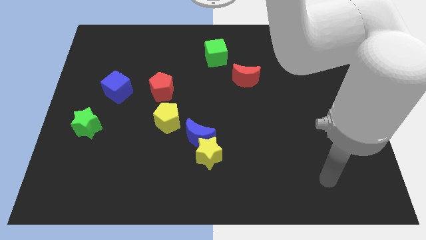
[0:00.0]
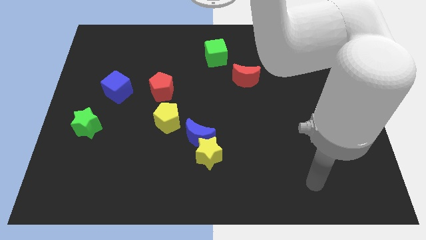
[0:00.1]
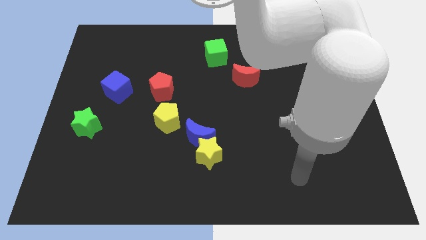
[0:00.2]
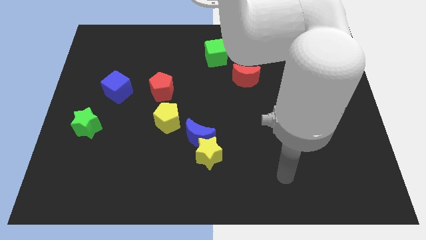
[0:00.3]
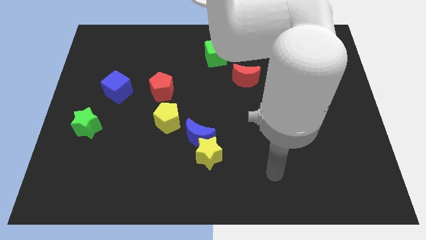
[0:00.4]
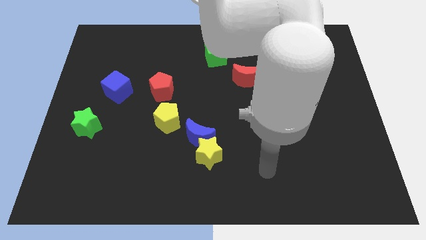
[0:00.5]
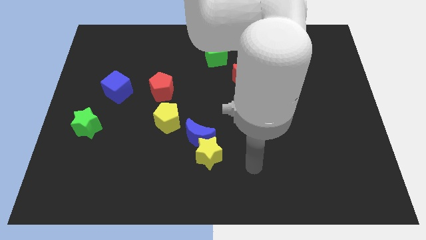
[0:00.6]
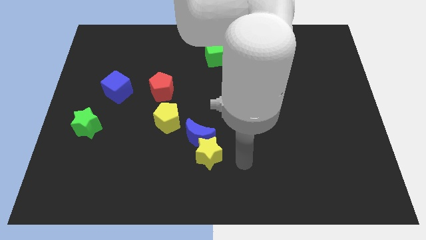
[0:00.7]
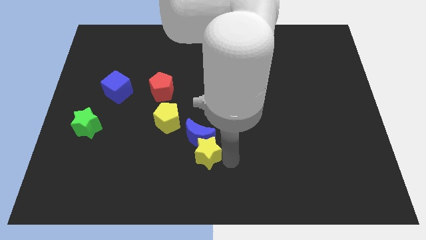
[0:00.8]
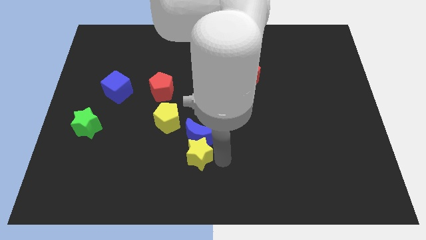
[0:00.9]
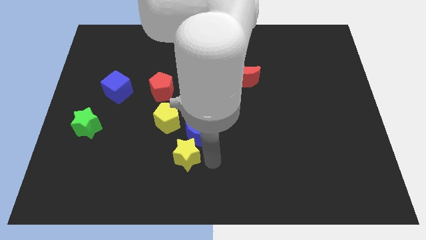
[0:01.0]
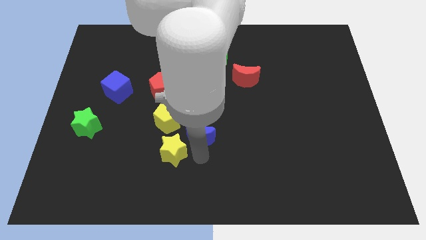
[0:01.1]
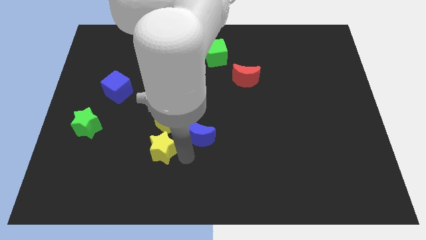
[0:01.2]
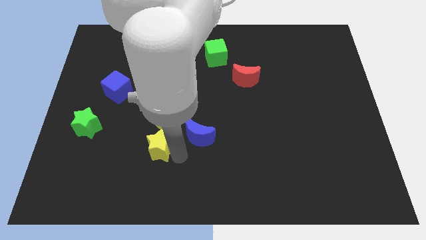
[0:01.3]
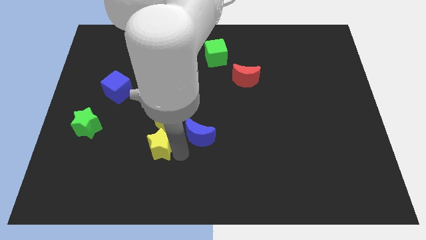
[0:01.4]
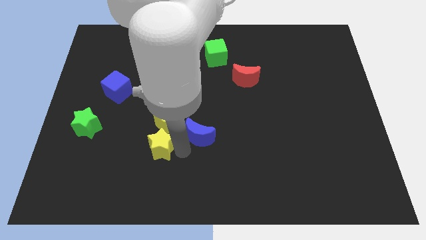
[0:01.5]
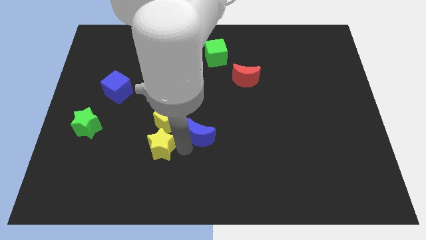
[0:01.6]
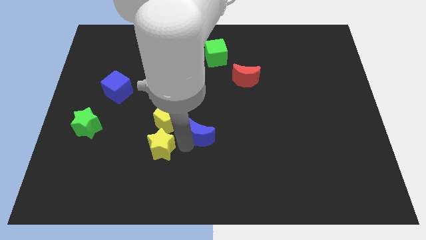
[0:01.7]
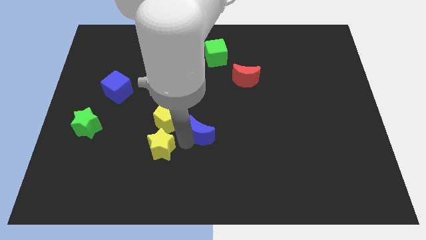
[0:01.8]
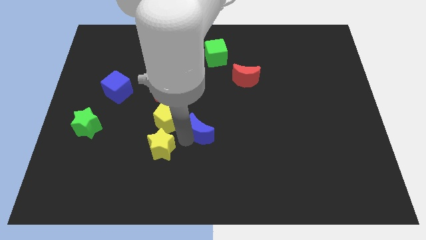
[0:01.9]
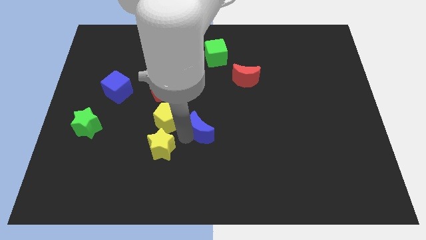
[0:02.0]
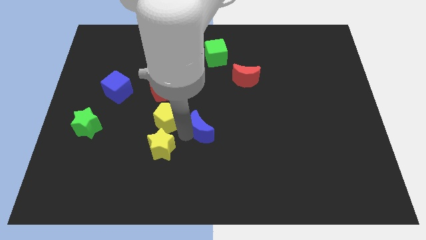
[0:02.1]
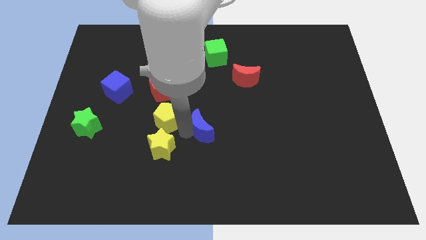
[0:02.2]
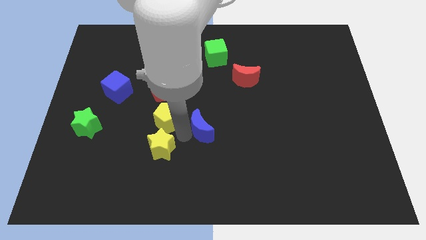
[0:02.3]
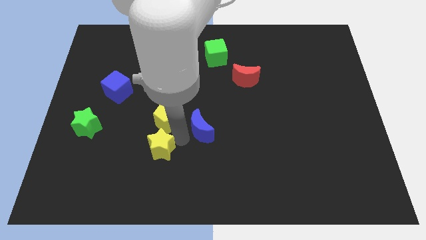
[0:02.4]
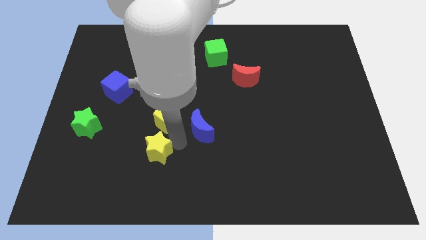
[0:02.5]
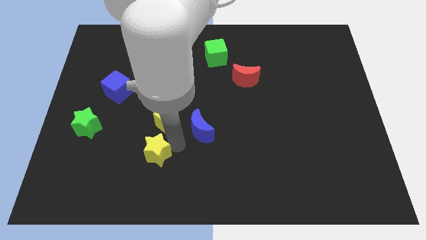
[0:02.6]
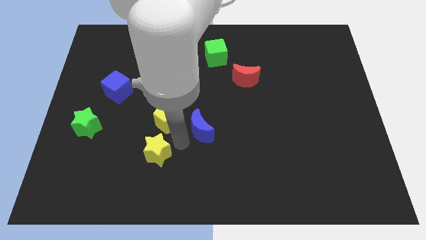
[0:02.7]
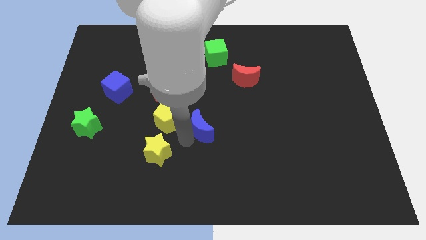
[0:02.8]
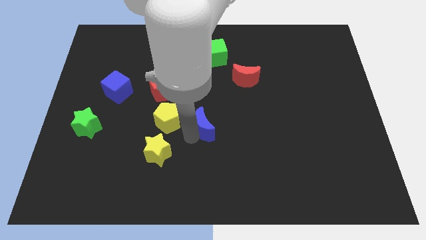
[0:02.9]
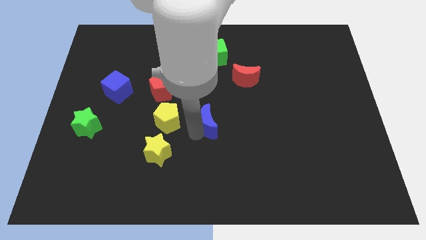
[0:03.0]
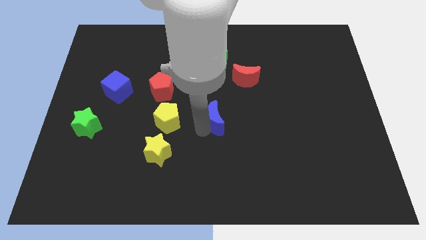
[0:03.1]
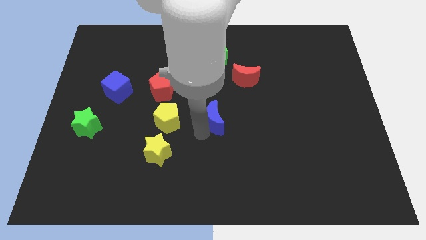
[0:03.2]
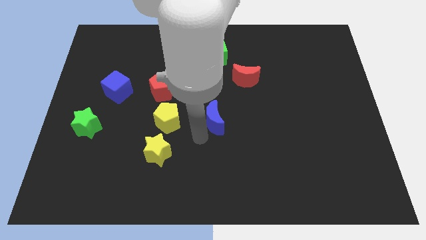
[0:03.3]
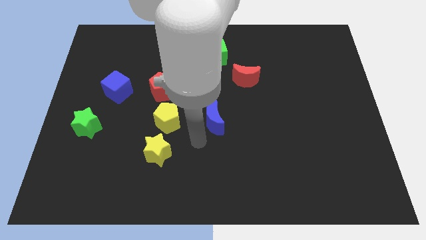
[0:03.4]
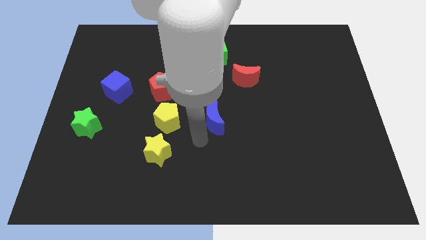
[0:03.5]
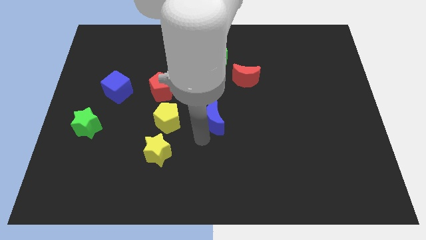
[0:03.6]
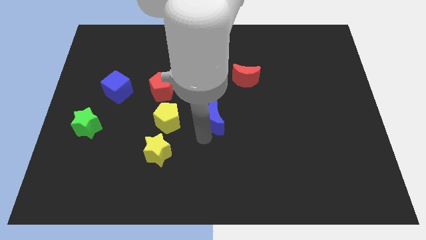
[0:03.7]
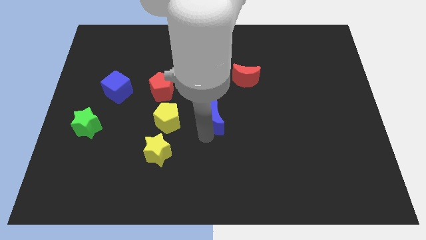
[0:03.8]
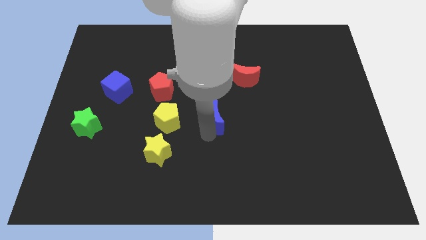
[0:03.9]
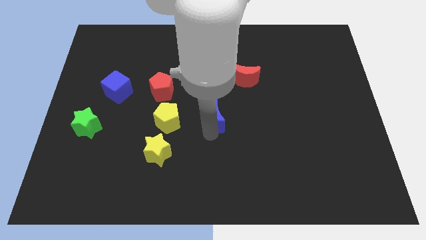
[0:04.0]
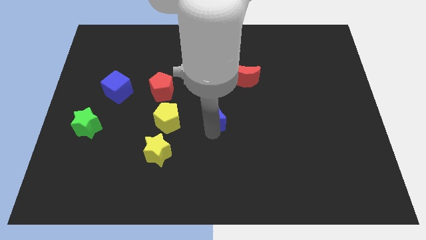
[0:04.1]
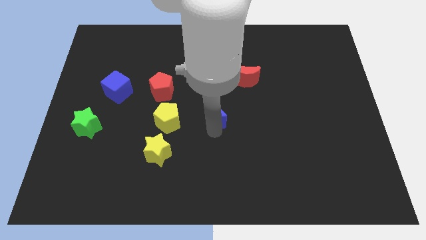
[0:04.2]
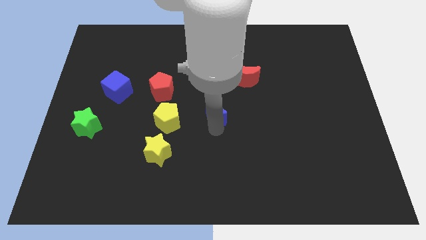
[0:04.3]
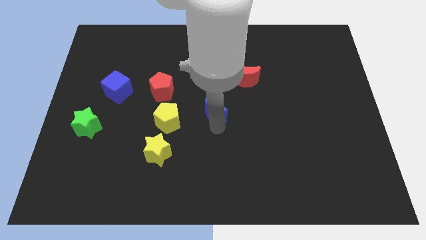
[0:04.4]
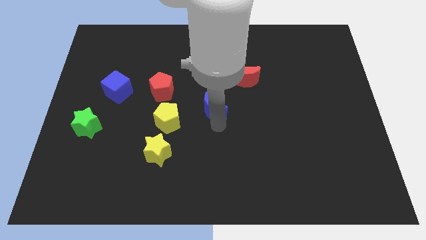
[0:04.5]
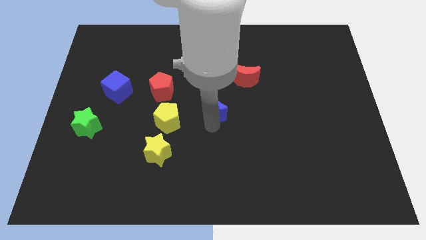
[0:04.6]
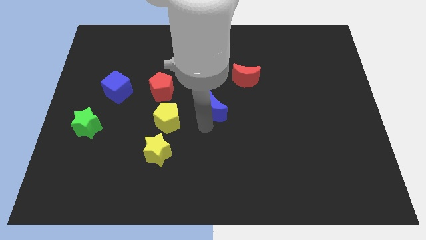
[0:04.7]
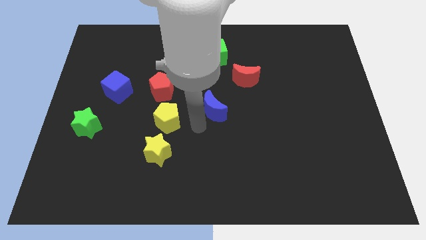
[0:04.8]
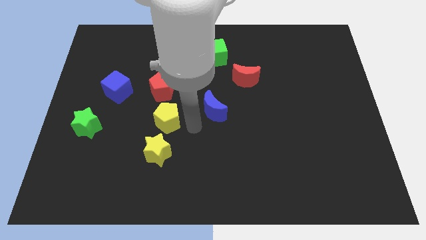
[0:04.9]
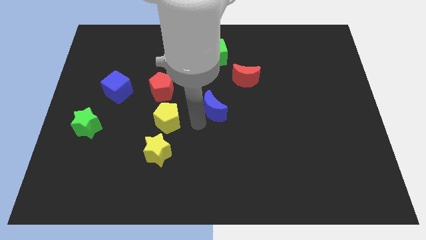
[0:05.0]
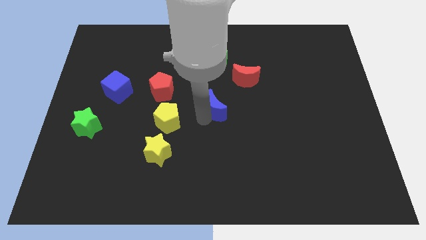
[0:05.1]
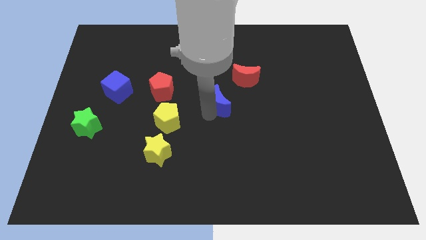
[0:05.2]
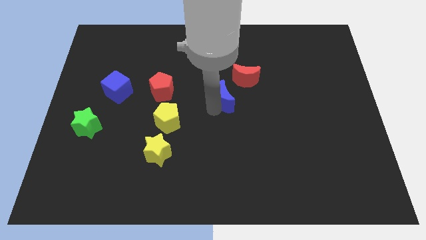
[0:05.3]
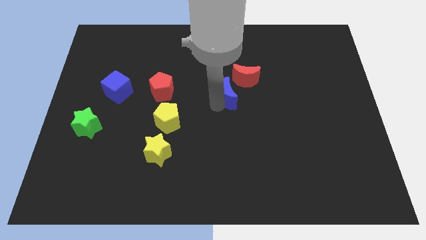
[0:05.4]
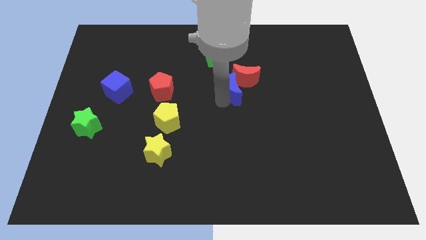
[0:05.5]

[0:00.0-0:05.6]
put the blue moon close to the red moon

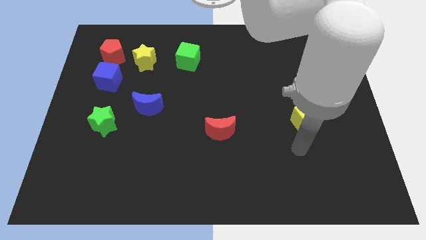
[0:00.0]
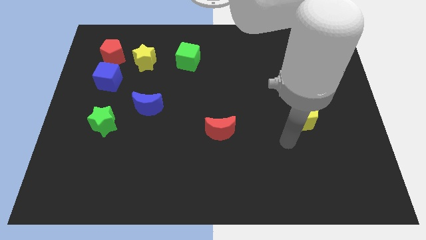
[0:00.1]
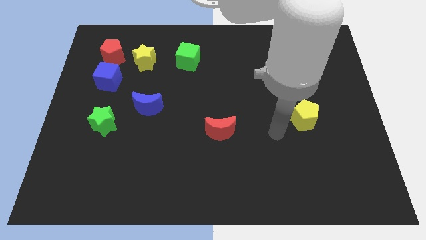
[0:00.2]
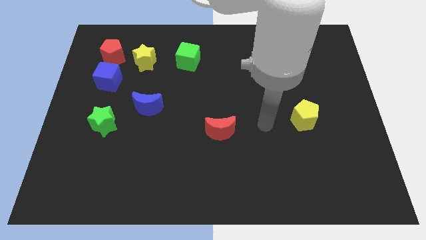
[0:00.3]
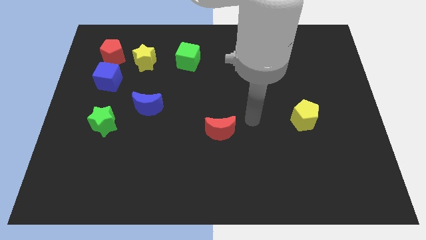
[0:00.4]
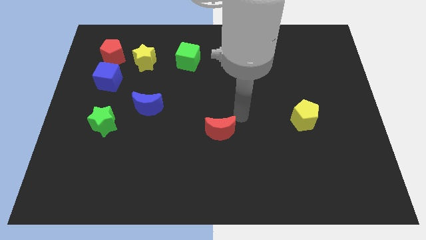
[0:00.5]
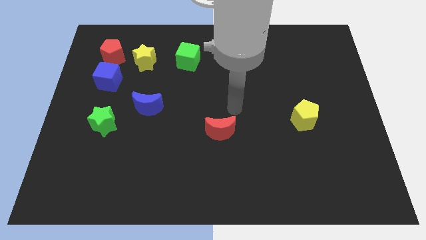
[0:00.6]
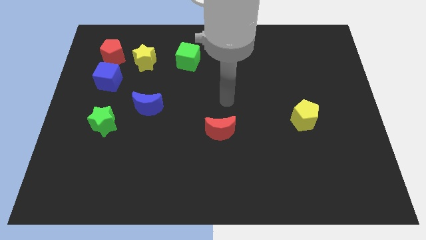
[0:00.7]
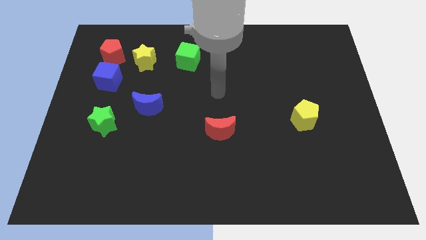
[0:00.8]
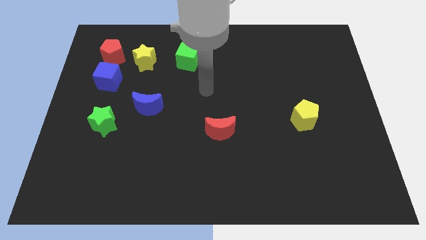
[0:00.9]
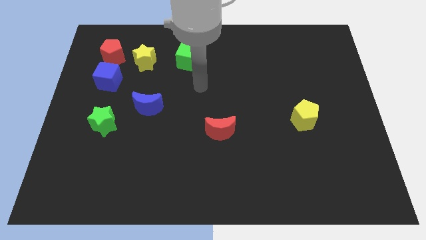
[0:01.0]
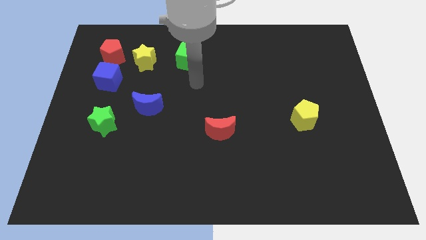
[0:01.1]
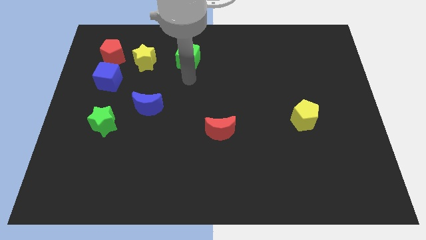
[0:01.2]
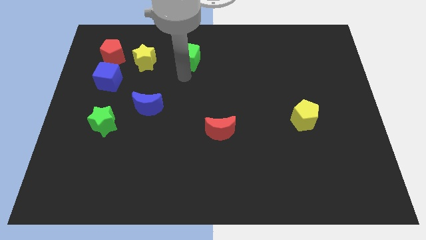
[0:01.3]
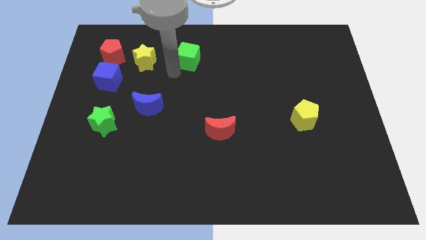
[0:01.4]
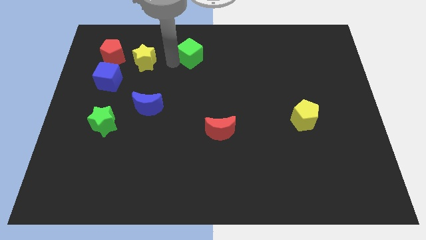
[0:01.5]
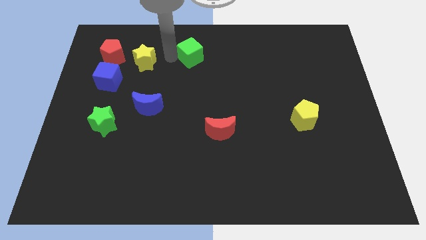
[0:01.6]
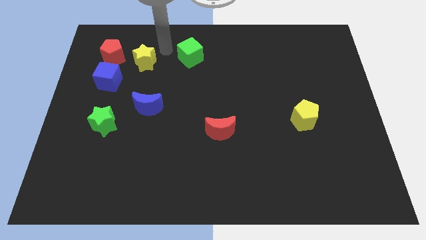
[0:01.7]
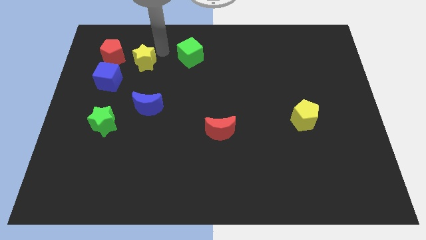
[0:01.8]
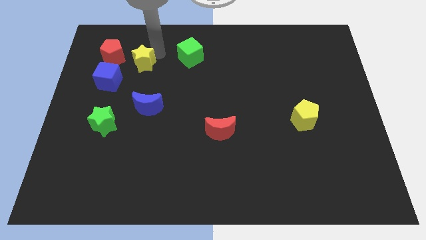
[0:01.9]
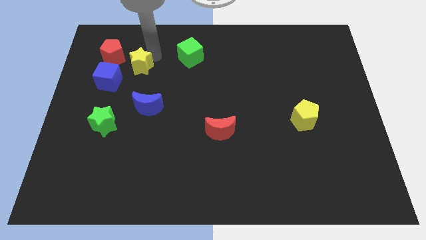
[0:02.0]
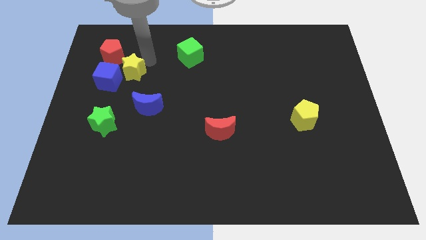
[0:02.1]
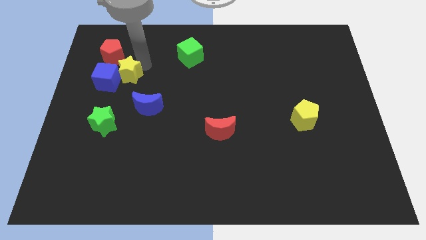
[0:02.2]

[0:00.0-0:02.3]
push the yellow star close to the blue cube
